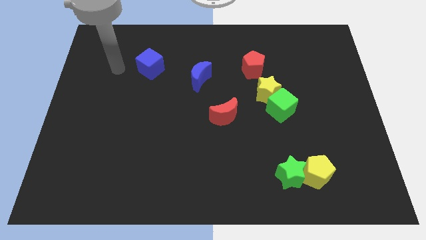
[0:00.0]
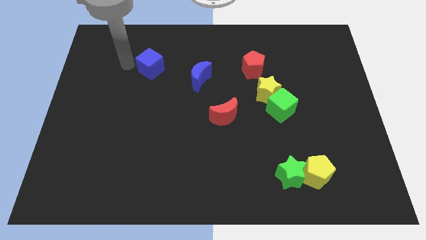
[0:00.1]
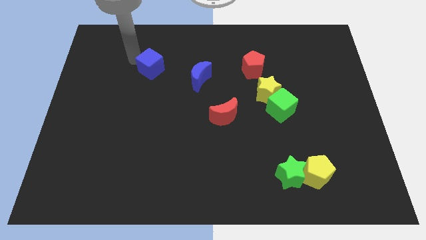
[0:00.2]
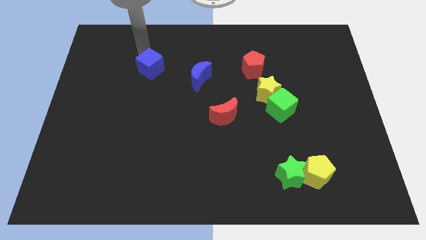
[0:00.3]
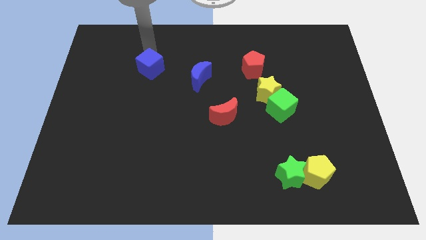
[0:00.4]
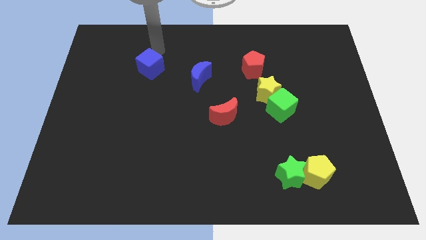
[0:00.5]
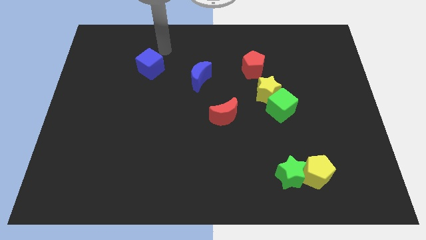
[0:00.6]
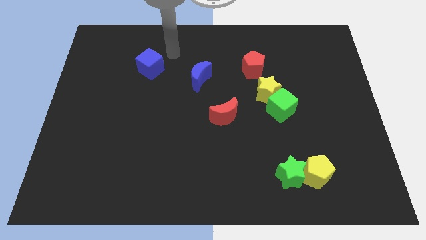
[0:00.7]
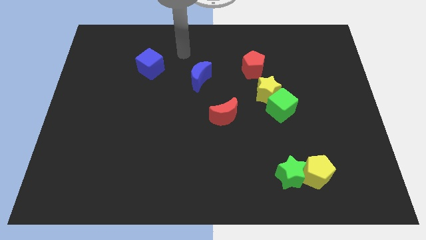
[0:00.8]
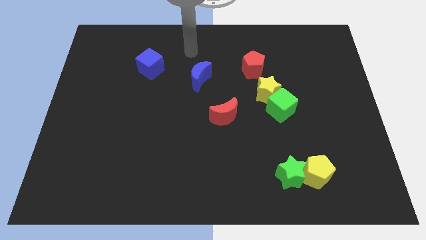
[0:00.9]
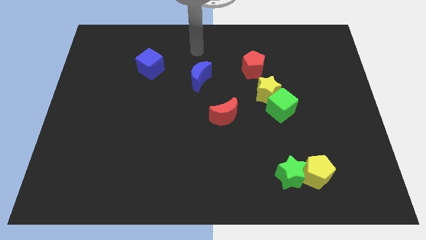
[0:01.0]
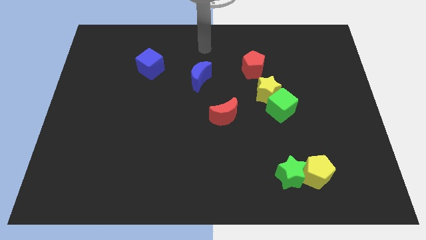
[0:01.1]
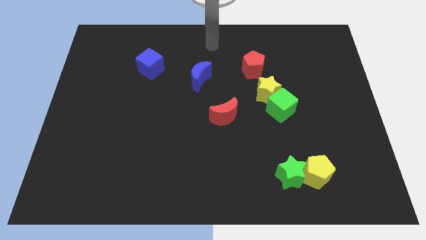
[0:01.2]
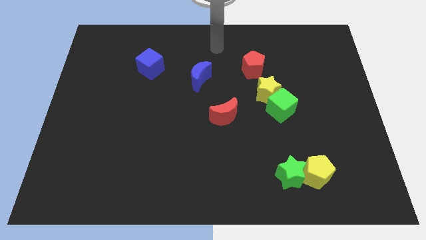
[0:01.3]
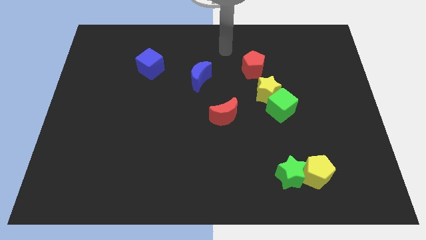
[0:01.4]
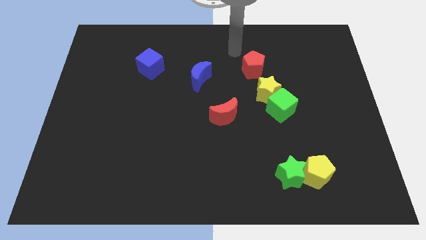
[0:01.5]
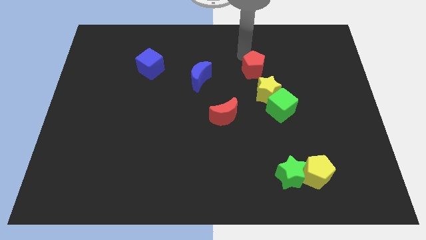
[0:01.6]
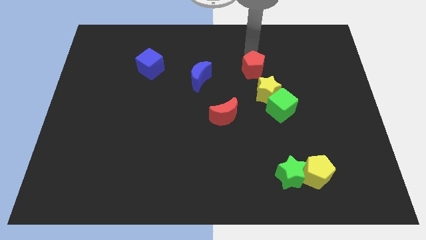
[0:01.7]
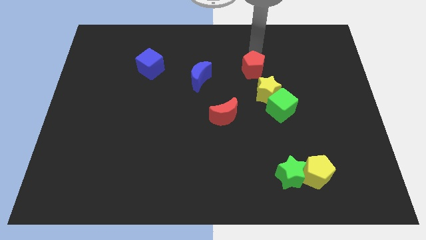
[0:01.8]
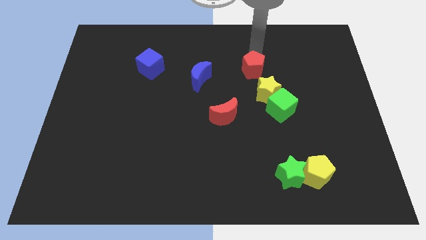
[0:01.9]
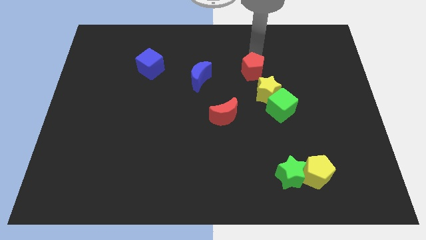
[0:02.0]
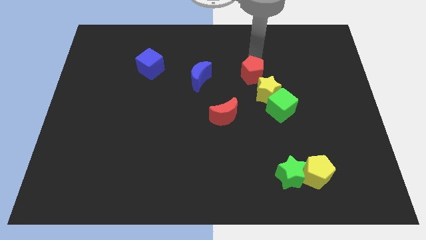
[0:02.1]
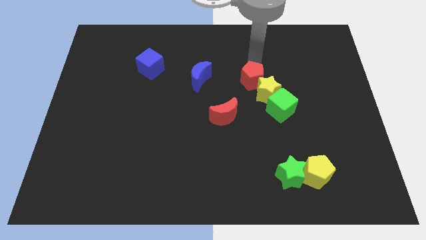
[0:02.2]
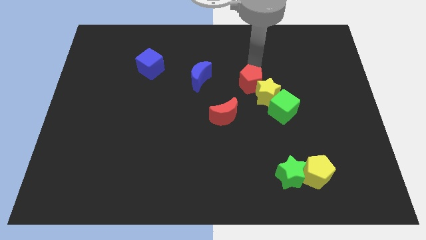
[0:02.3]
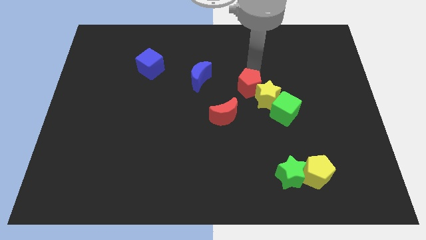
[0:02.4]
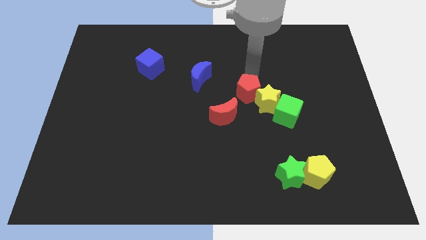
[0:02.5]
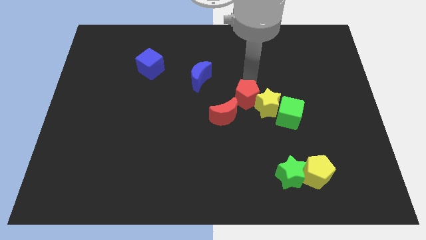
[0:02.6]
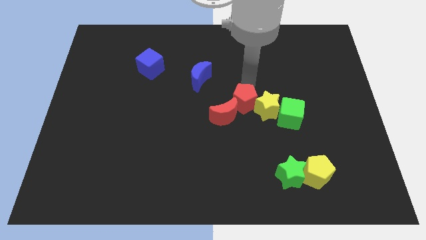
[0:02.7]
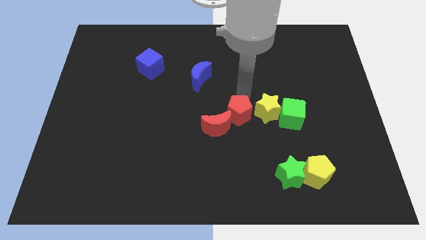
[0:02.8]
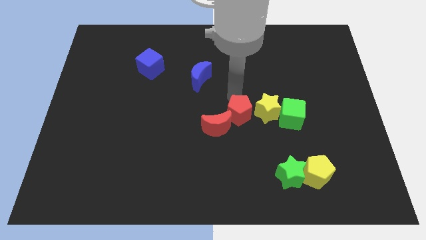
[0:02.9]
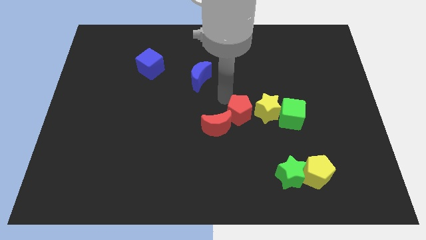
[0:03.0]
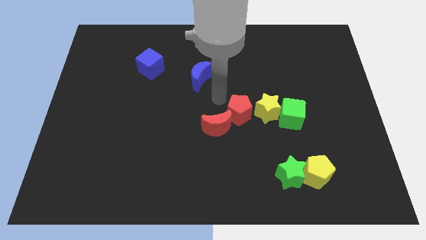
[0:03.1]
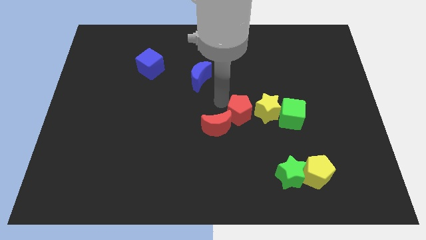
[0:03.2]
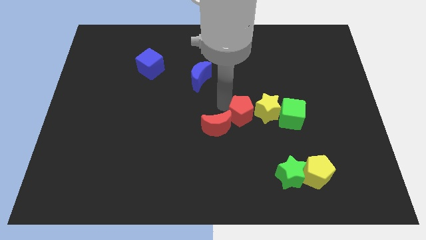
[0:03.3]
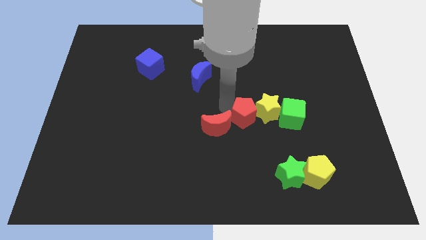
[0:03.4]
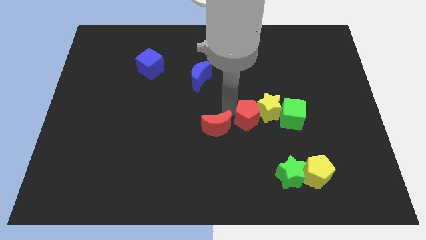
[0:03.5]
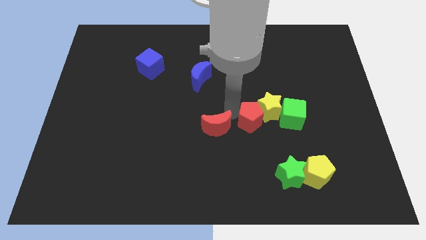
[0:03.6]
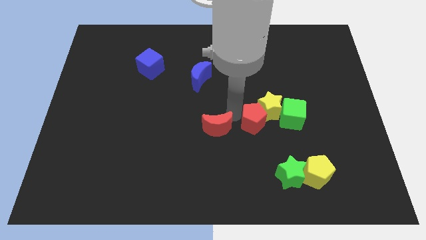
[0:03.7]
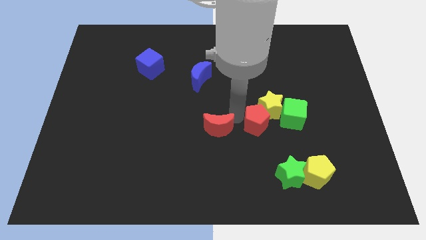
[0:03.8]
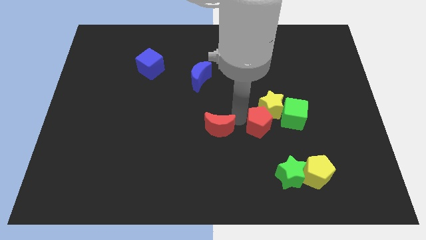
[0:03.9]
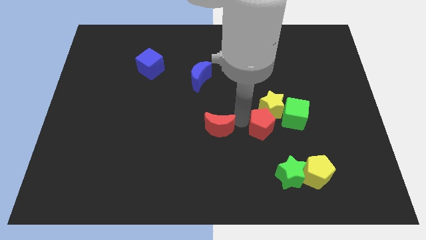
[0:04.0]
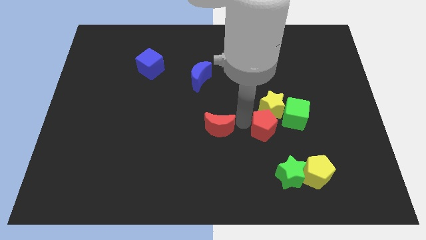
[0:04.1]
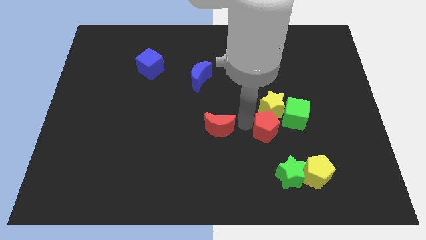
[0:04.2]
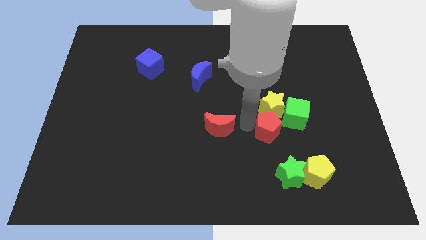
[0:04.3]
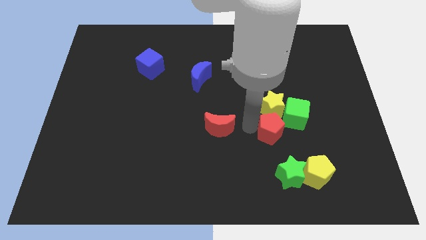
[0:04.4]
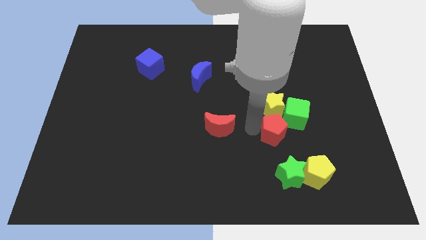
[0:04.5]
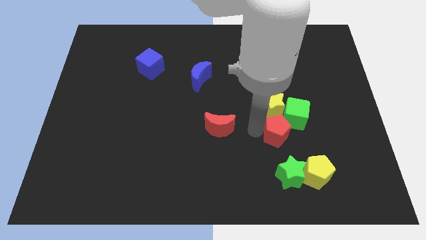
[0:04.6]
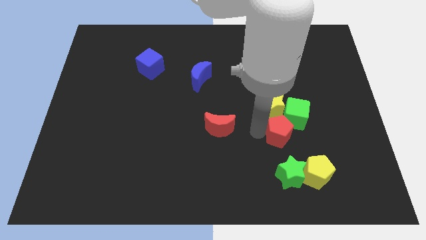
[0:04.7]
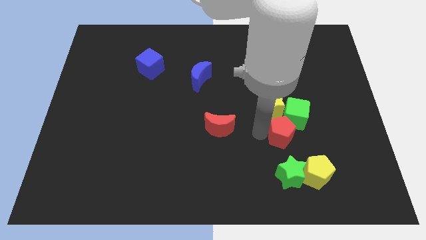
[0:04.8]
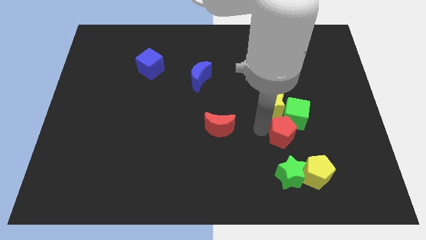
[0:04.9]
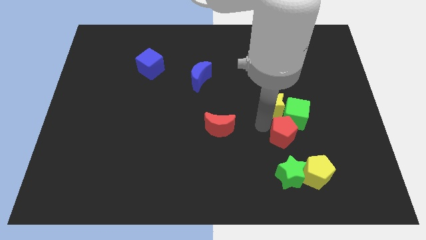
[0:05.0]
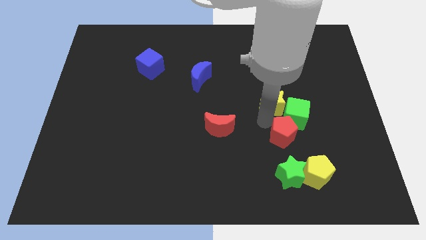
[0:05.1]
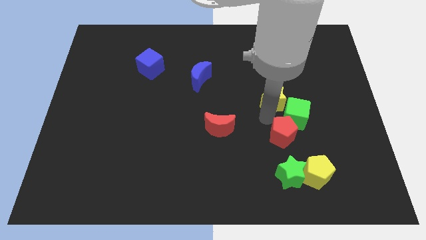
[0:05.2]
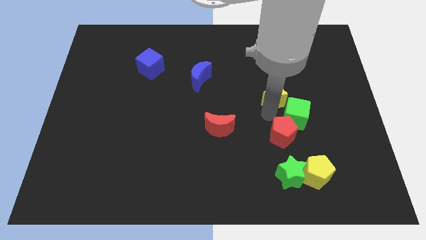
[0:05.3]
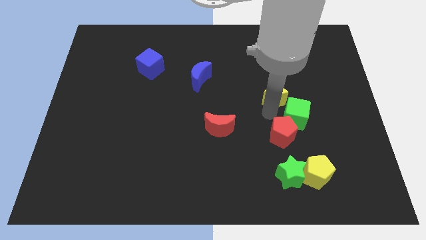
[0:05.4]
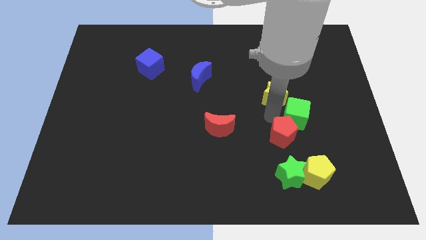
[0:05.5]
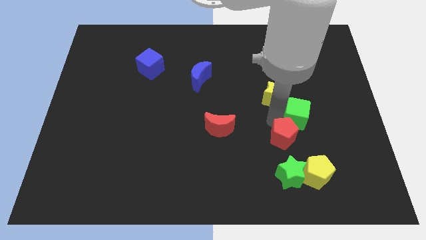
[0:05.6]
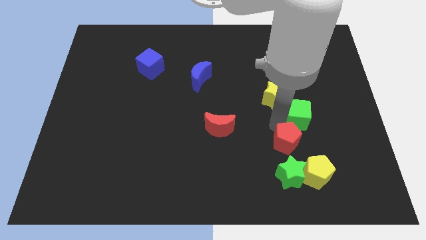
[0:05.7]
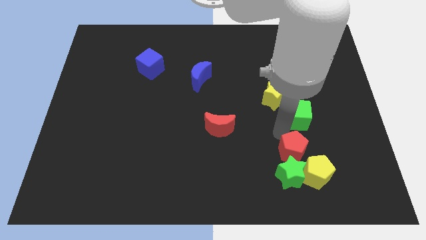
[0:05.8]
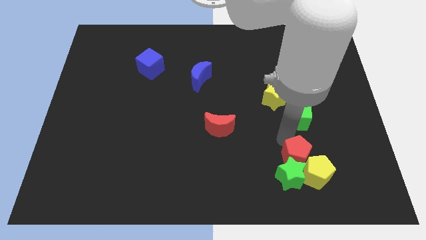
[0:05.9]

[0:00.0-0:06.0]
push the red pentagon towards the yellow pentagon

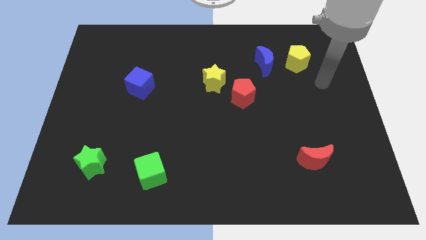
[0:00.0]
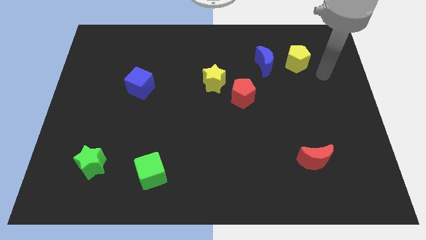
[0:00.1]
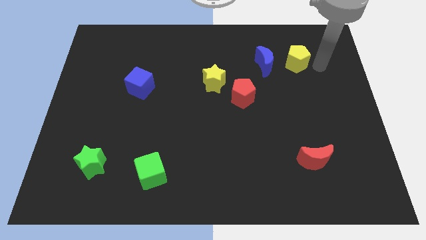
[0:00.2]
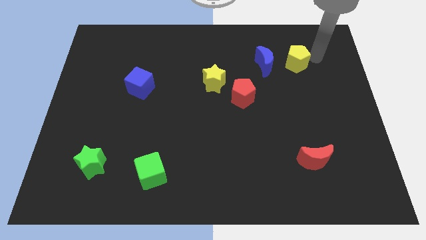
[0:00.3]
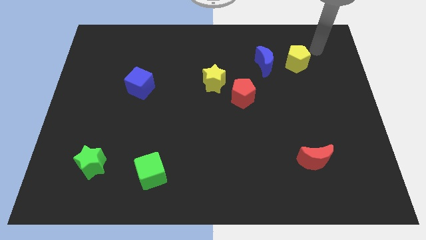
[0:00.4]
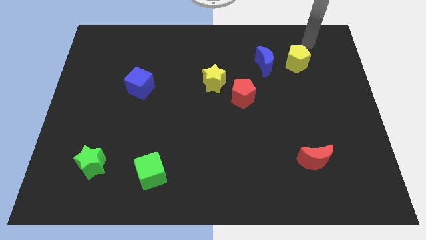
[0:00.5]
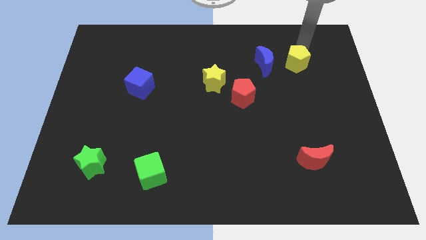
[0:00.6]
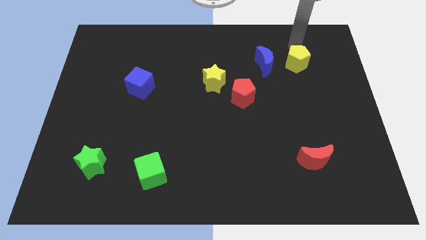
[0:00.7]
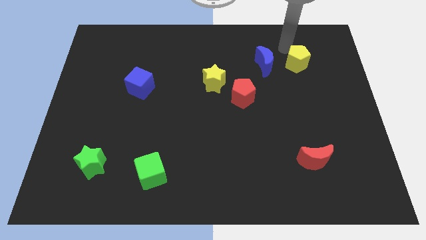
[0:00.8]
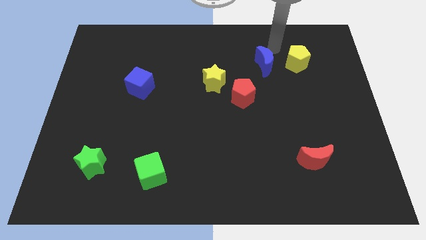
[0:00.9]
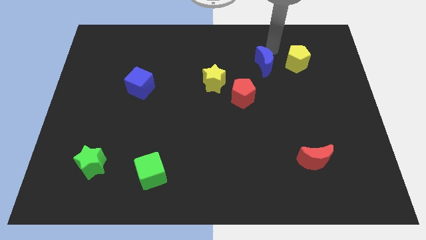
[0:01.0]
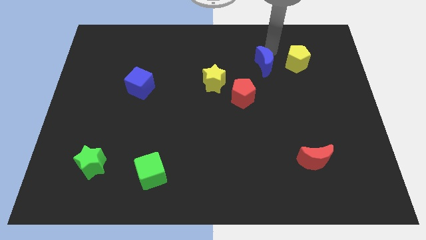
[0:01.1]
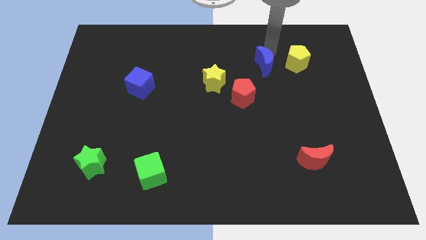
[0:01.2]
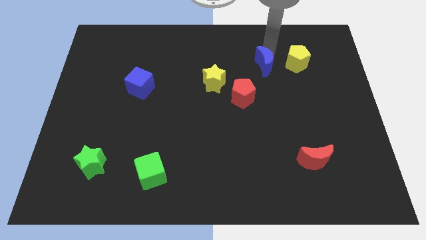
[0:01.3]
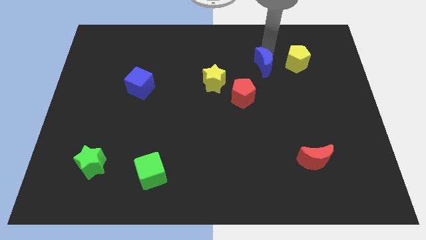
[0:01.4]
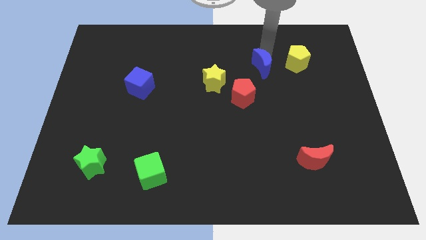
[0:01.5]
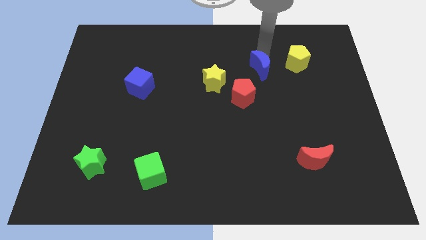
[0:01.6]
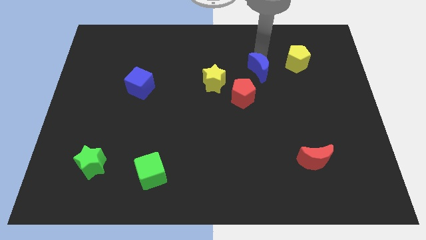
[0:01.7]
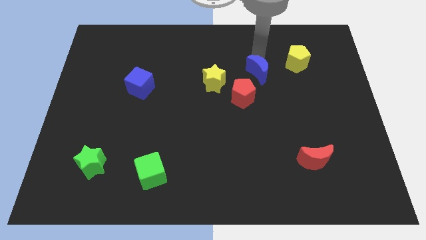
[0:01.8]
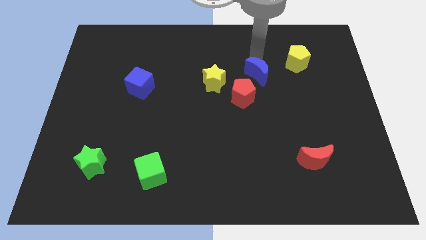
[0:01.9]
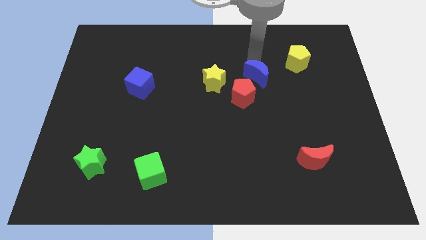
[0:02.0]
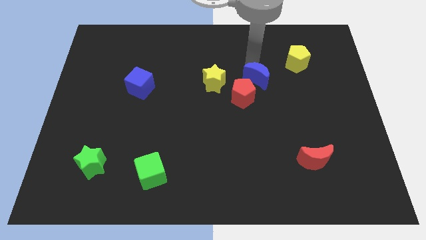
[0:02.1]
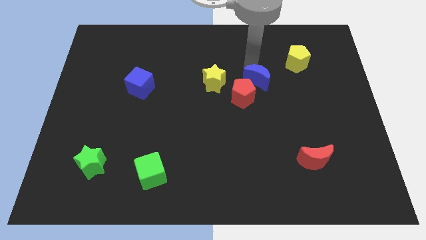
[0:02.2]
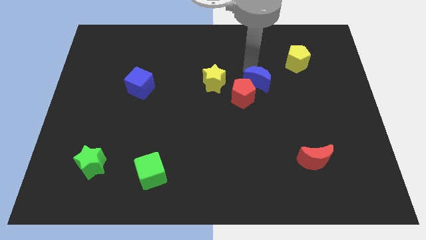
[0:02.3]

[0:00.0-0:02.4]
put the blue moon towards the red pentagon
